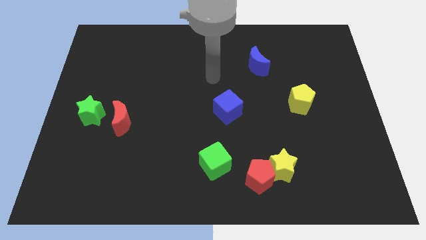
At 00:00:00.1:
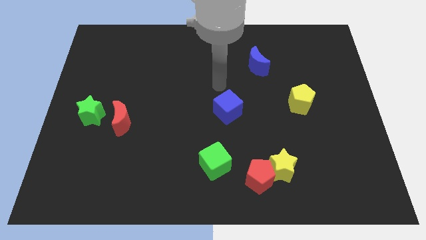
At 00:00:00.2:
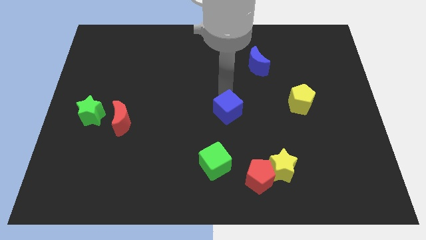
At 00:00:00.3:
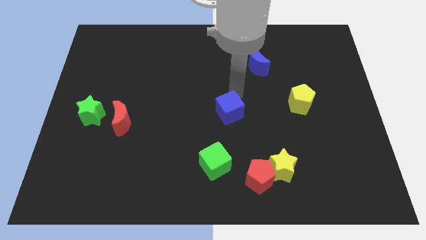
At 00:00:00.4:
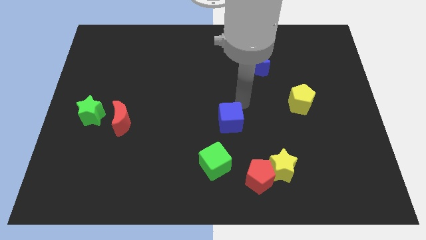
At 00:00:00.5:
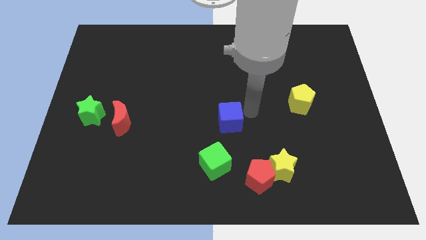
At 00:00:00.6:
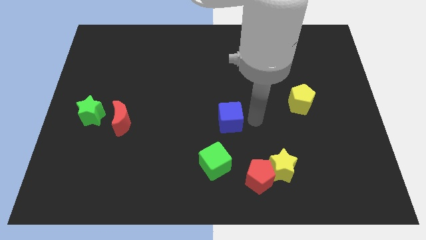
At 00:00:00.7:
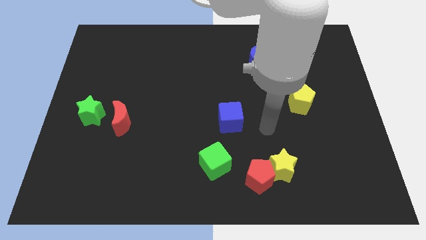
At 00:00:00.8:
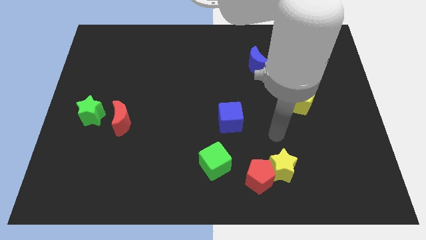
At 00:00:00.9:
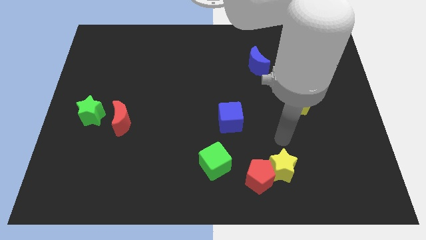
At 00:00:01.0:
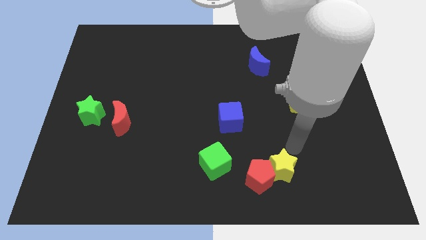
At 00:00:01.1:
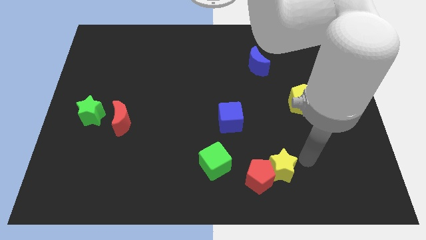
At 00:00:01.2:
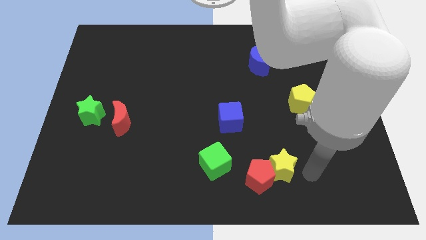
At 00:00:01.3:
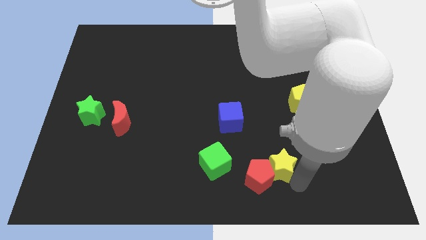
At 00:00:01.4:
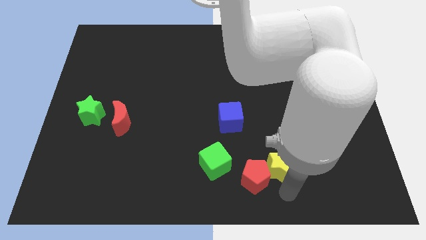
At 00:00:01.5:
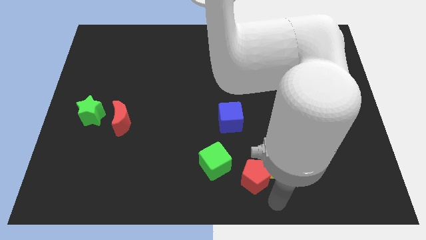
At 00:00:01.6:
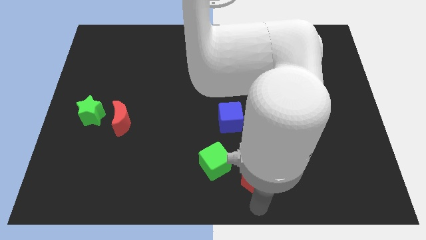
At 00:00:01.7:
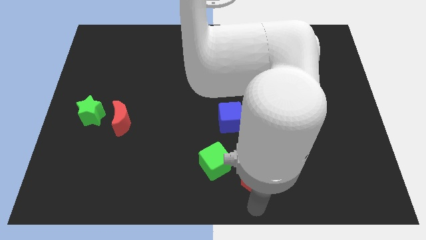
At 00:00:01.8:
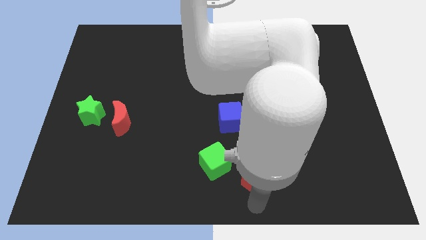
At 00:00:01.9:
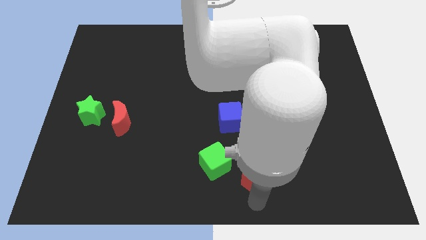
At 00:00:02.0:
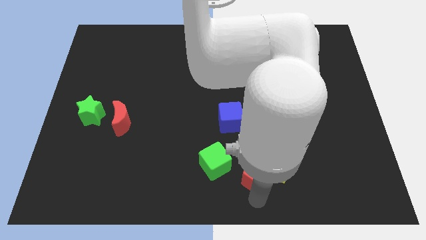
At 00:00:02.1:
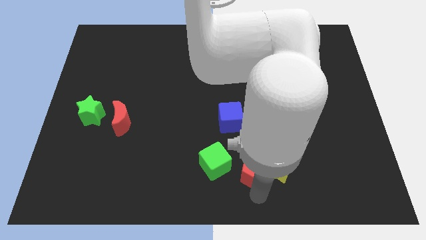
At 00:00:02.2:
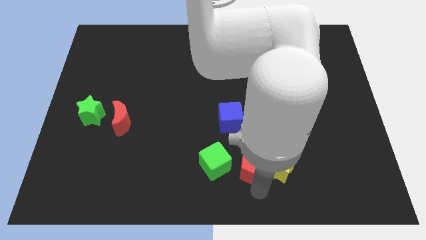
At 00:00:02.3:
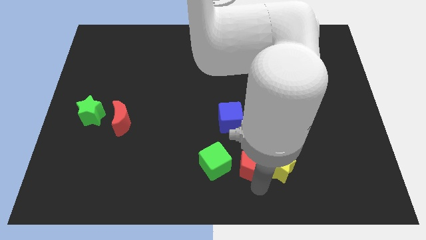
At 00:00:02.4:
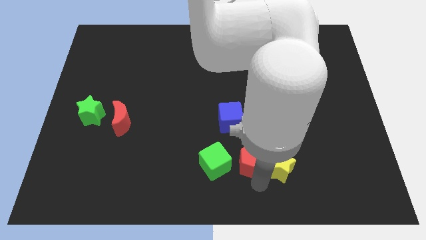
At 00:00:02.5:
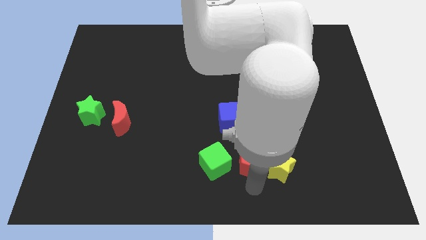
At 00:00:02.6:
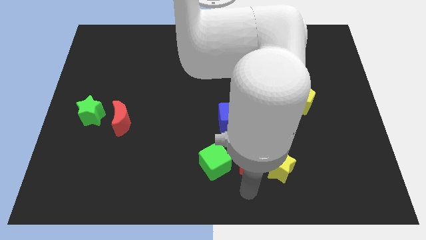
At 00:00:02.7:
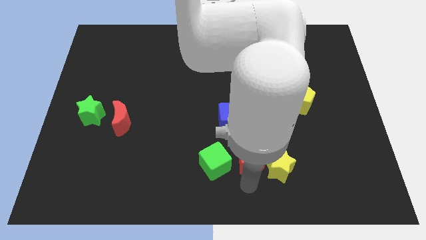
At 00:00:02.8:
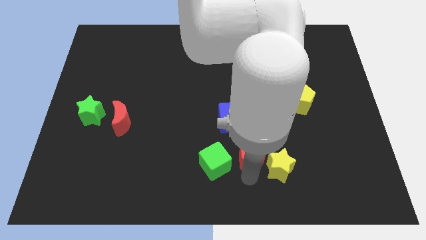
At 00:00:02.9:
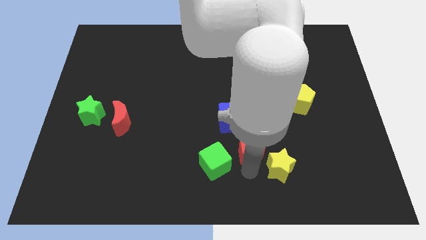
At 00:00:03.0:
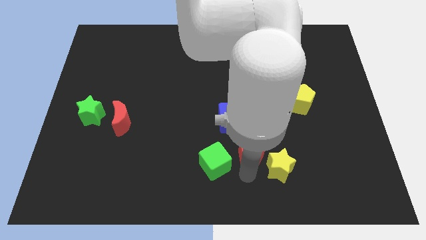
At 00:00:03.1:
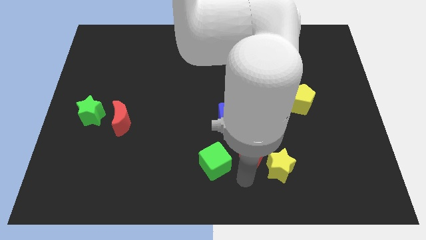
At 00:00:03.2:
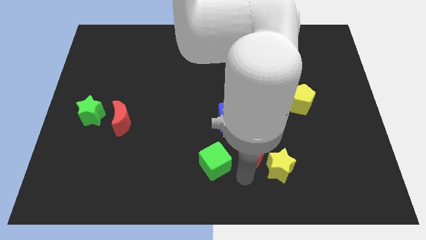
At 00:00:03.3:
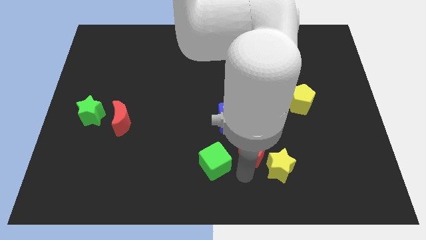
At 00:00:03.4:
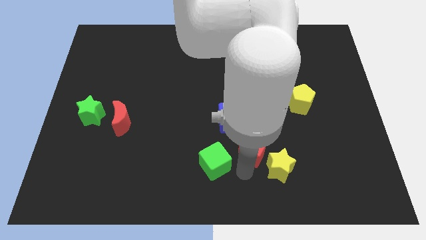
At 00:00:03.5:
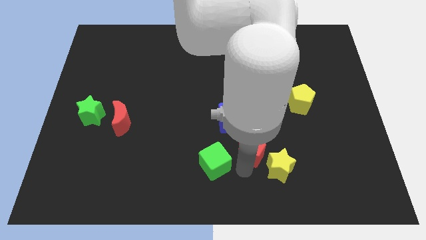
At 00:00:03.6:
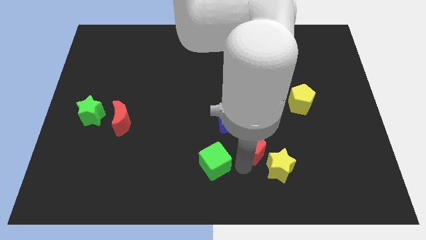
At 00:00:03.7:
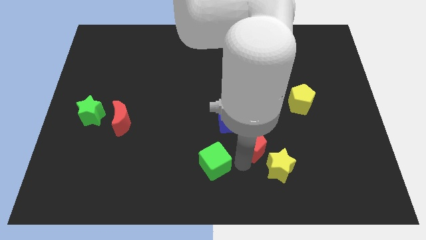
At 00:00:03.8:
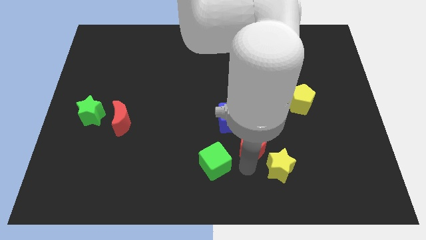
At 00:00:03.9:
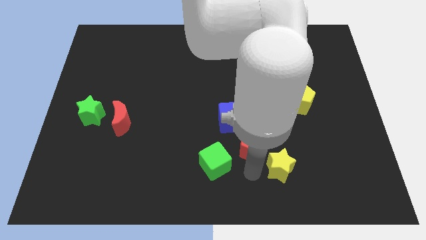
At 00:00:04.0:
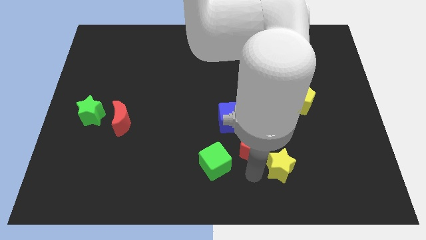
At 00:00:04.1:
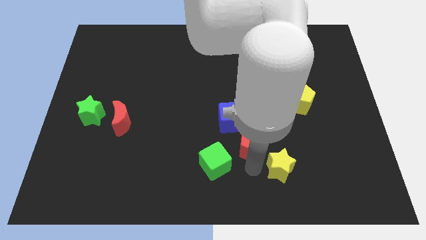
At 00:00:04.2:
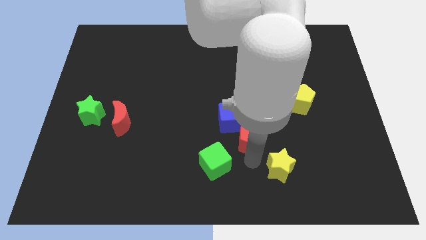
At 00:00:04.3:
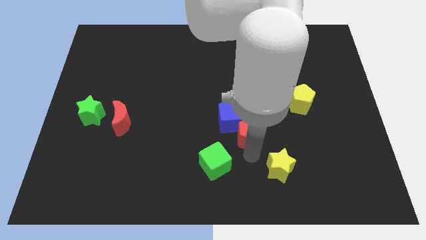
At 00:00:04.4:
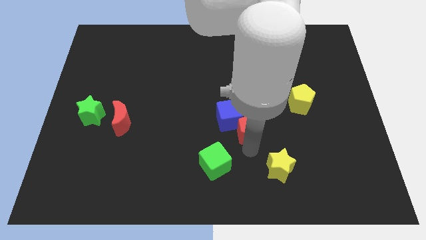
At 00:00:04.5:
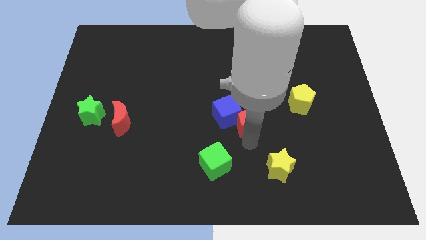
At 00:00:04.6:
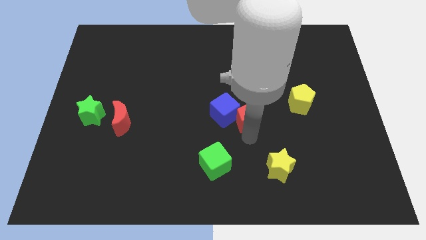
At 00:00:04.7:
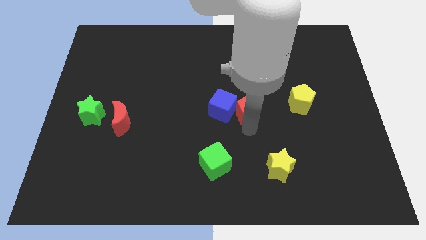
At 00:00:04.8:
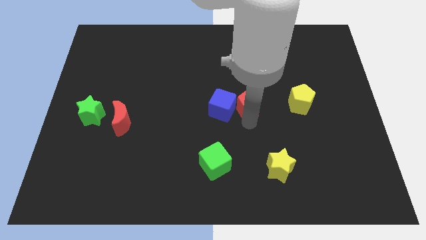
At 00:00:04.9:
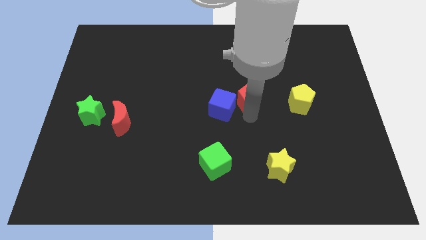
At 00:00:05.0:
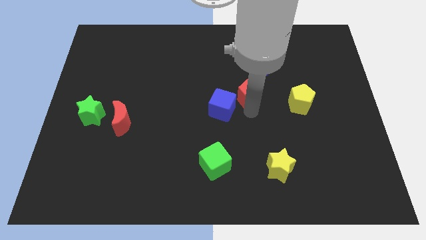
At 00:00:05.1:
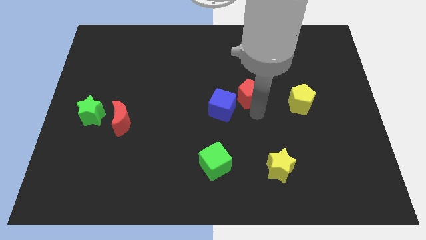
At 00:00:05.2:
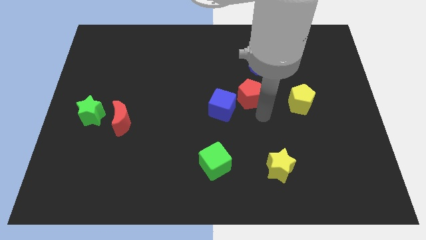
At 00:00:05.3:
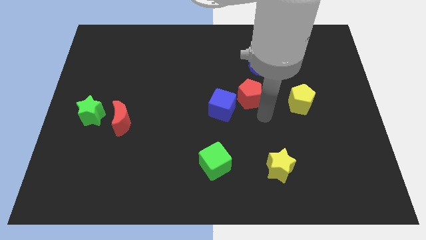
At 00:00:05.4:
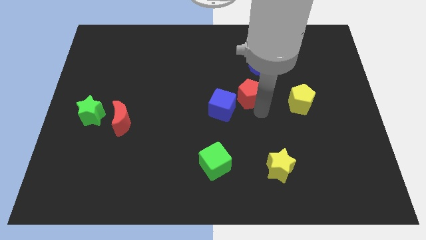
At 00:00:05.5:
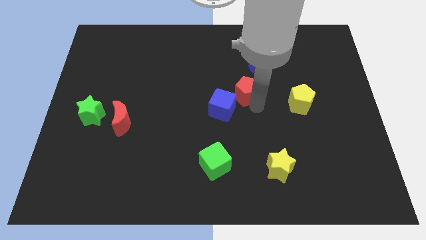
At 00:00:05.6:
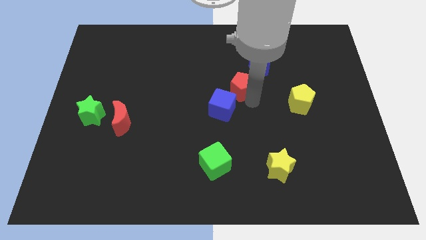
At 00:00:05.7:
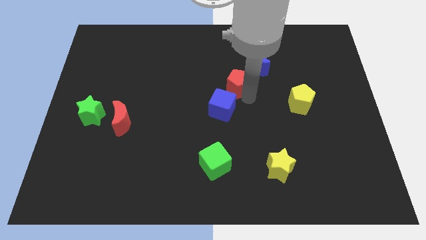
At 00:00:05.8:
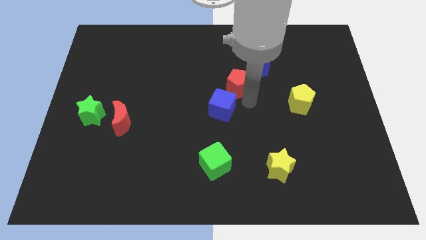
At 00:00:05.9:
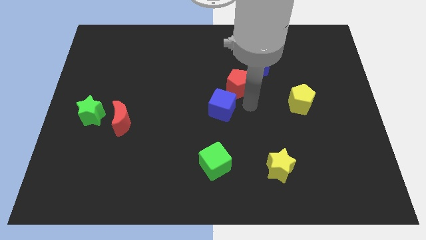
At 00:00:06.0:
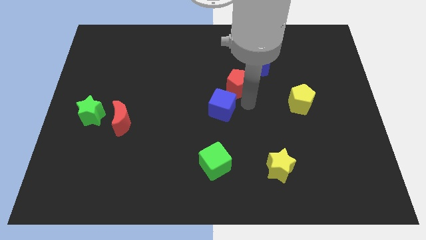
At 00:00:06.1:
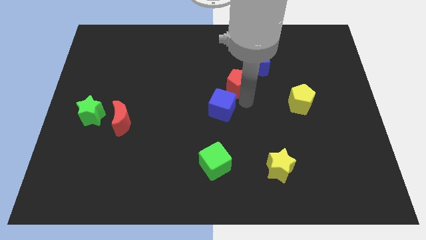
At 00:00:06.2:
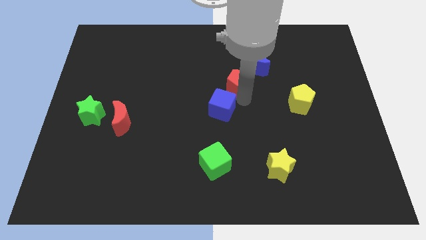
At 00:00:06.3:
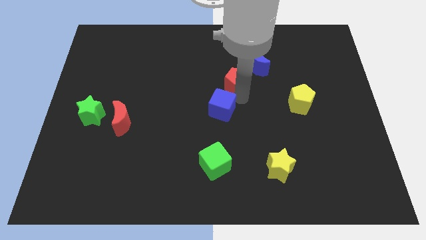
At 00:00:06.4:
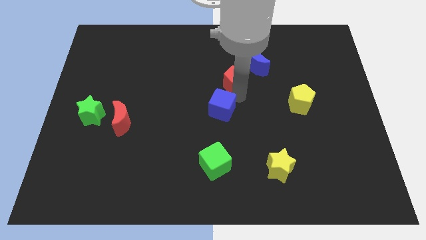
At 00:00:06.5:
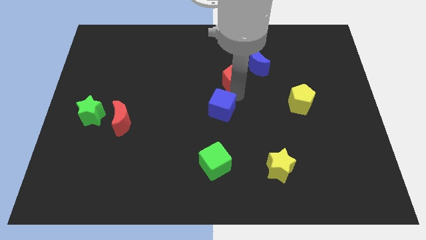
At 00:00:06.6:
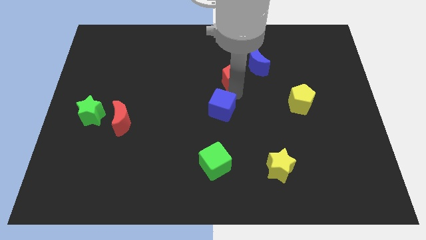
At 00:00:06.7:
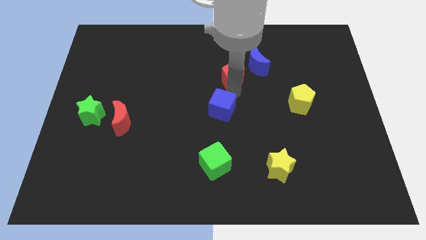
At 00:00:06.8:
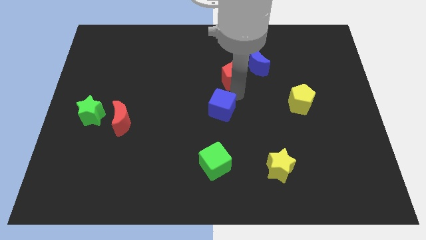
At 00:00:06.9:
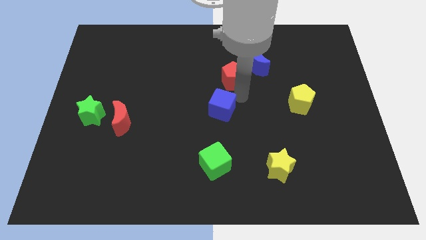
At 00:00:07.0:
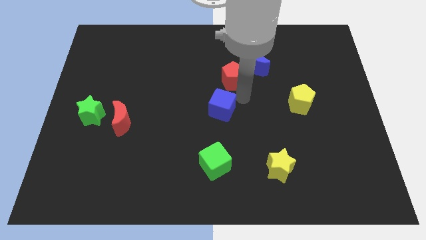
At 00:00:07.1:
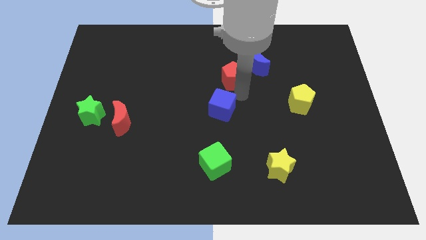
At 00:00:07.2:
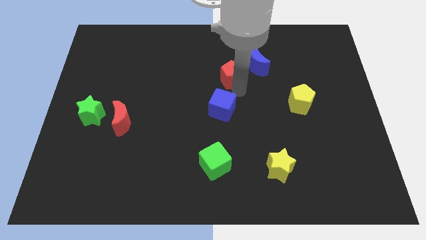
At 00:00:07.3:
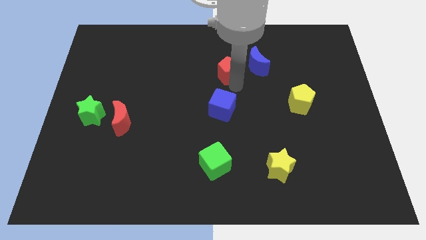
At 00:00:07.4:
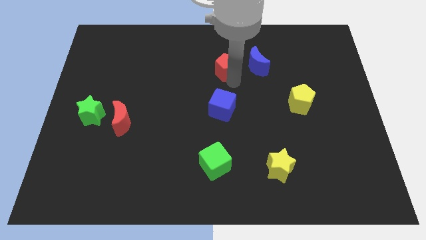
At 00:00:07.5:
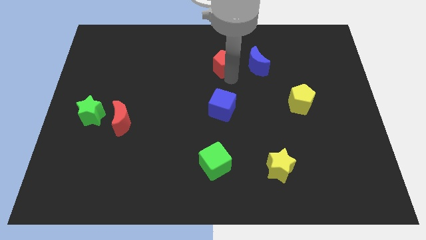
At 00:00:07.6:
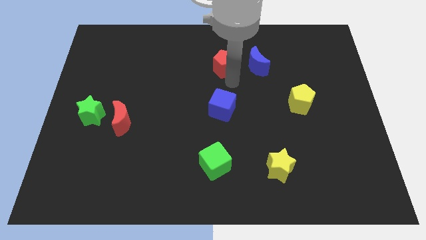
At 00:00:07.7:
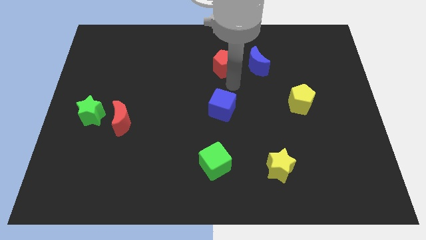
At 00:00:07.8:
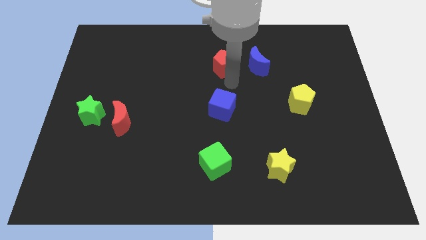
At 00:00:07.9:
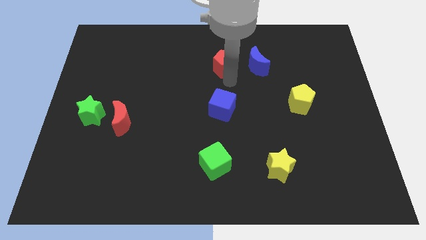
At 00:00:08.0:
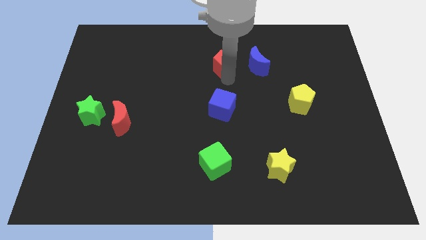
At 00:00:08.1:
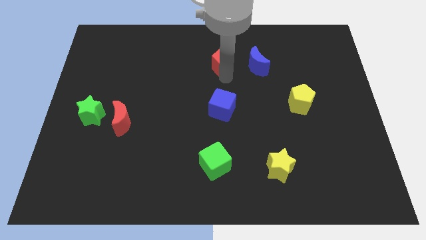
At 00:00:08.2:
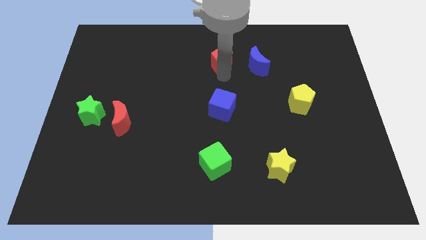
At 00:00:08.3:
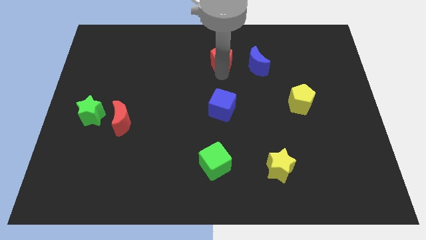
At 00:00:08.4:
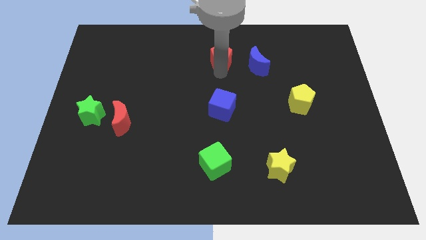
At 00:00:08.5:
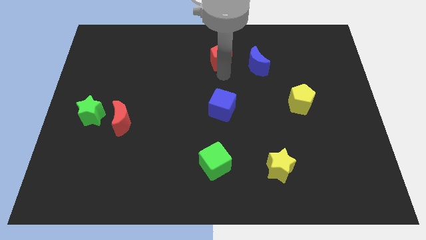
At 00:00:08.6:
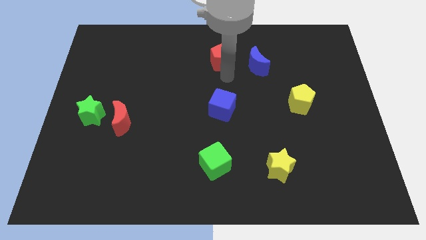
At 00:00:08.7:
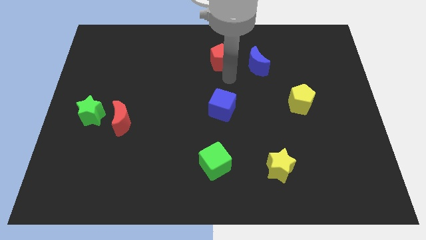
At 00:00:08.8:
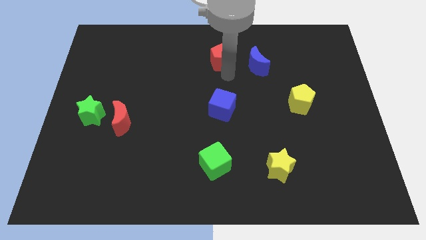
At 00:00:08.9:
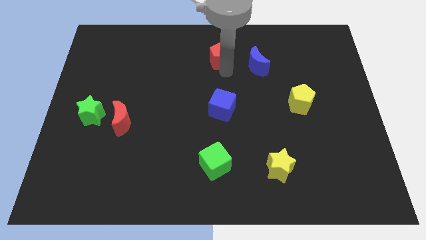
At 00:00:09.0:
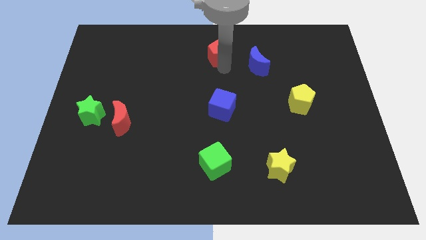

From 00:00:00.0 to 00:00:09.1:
slide the red pentagon to the towards your base
